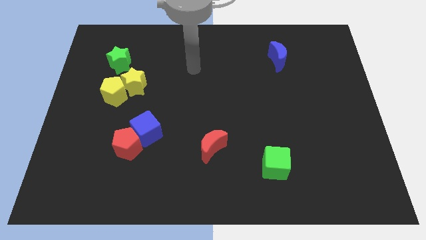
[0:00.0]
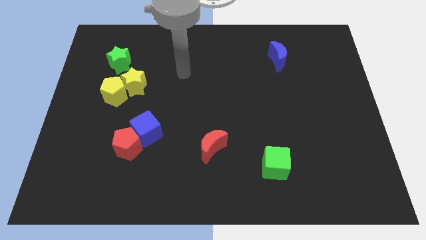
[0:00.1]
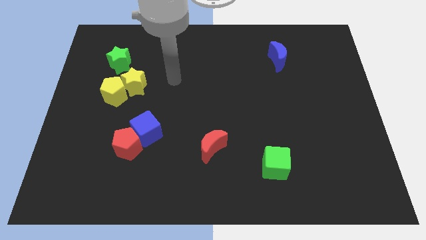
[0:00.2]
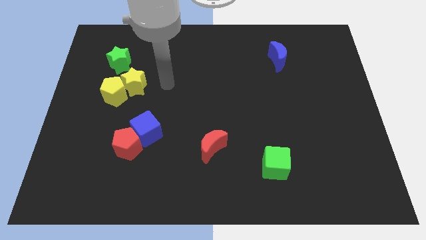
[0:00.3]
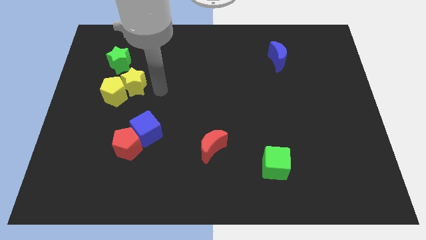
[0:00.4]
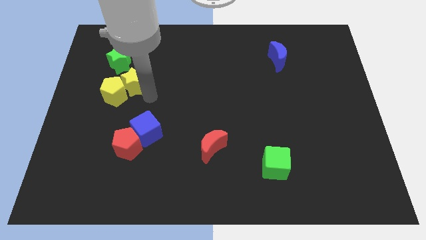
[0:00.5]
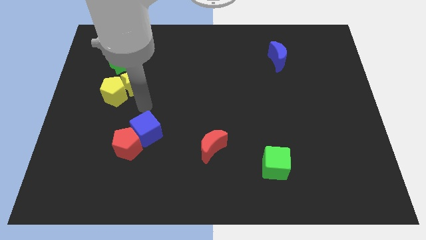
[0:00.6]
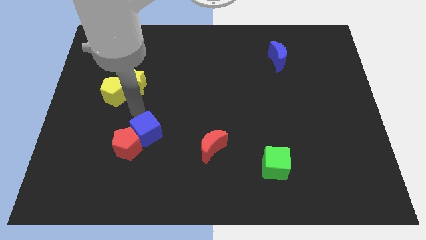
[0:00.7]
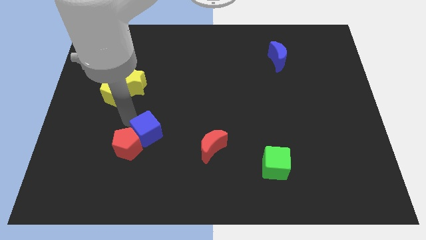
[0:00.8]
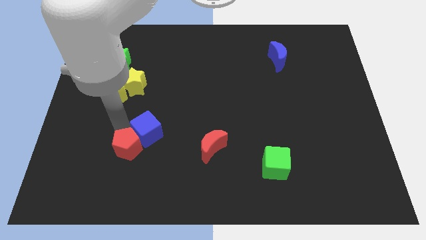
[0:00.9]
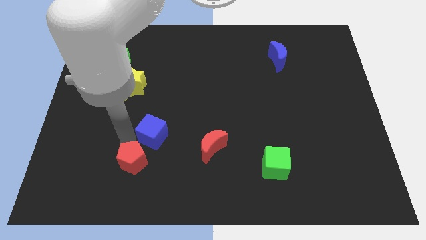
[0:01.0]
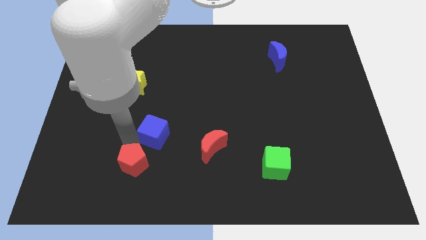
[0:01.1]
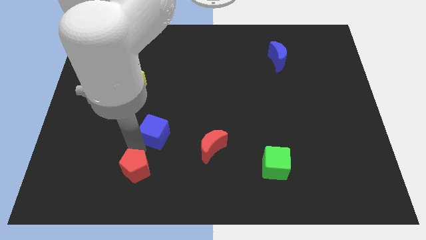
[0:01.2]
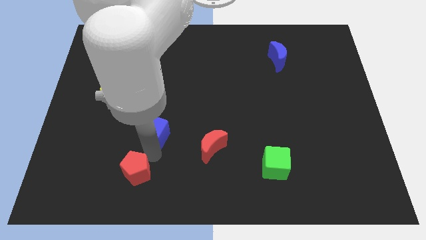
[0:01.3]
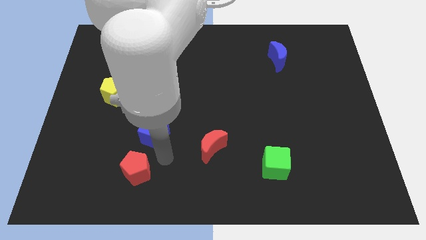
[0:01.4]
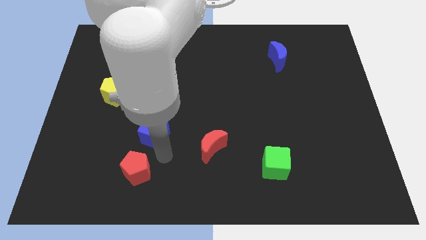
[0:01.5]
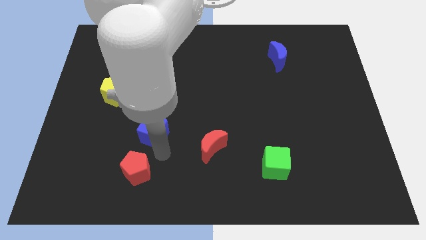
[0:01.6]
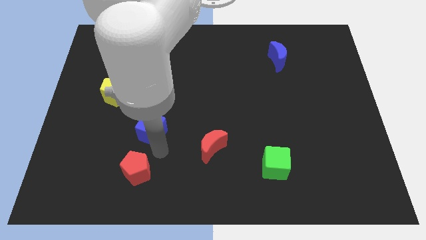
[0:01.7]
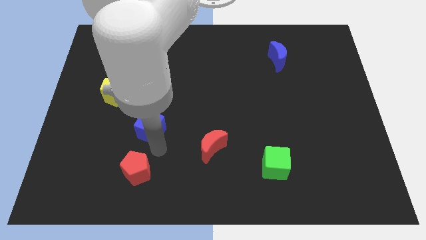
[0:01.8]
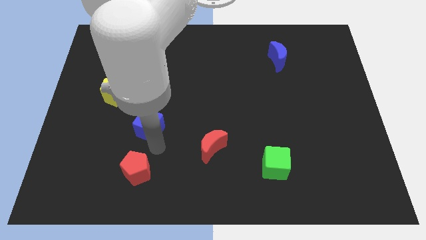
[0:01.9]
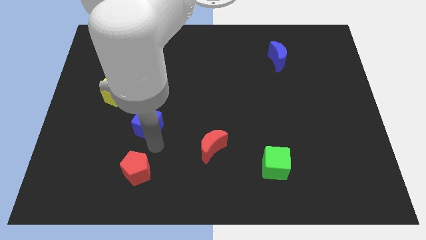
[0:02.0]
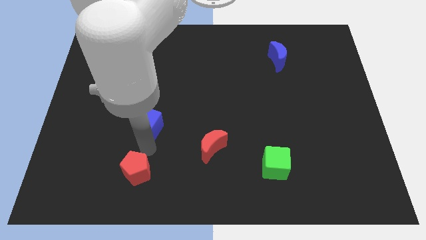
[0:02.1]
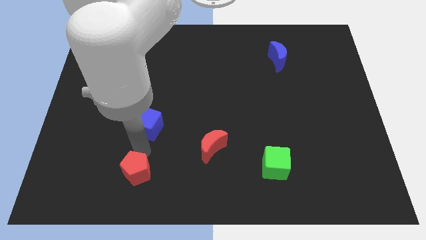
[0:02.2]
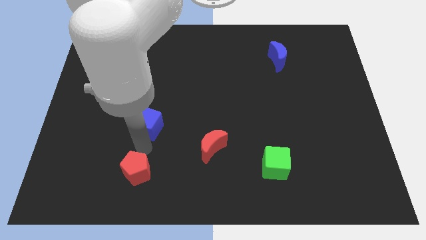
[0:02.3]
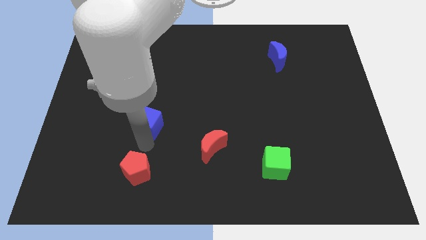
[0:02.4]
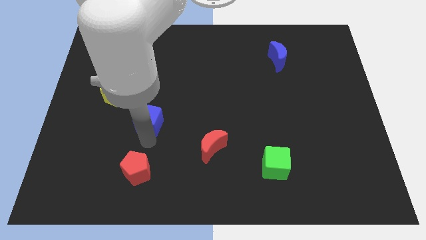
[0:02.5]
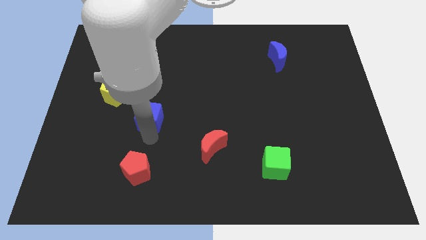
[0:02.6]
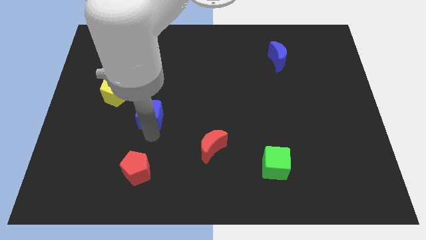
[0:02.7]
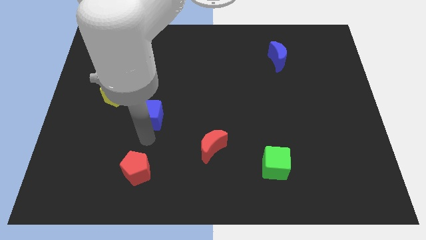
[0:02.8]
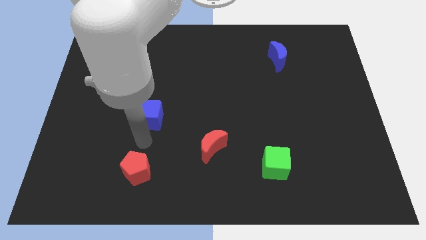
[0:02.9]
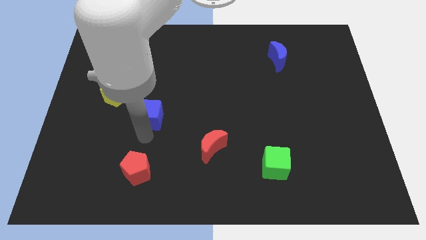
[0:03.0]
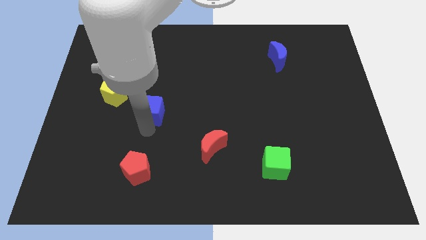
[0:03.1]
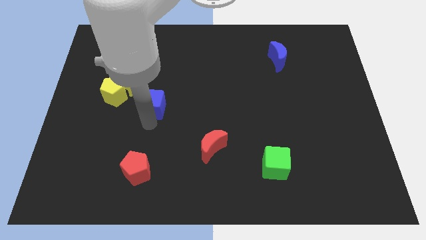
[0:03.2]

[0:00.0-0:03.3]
move the blue cube a little upwards

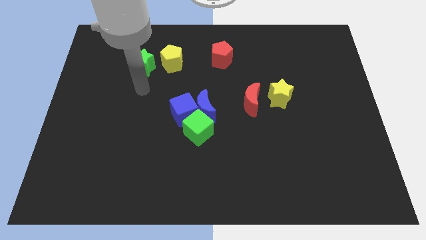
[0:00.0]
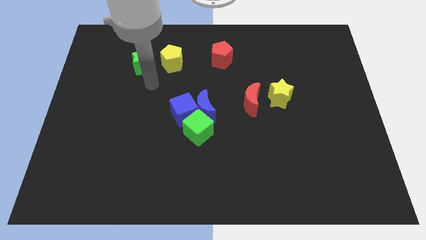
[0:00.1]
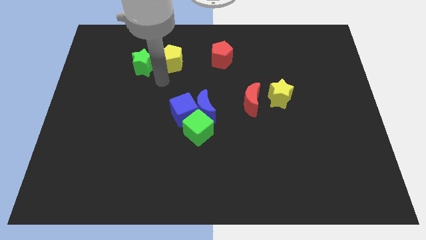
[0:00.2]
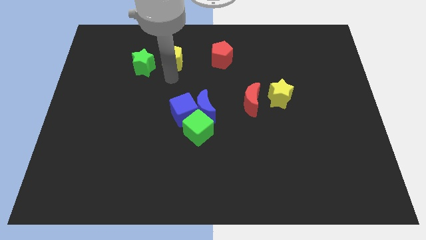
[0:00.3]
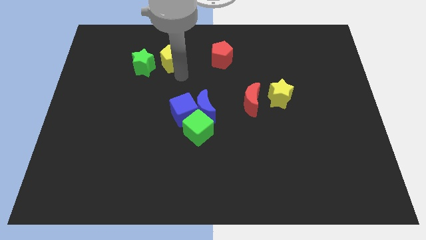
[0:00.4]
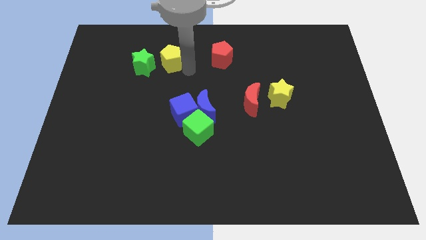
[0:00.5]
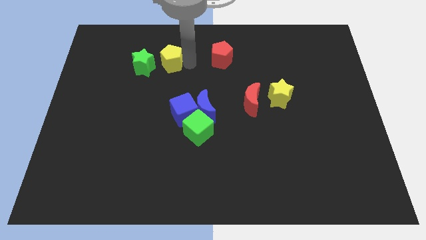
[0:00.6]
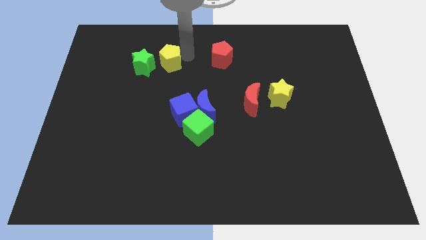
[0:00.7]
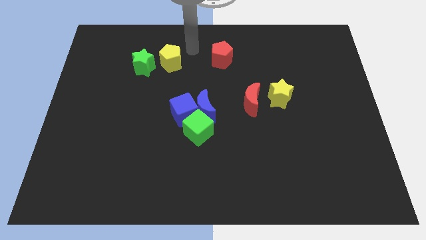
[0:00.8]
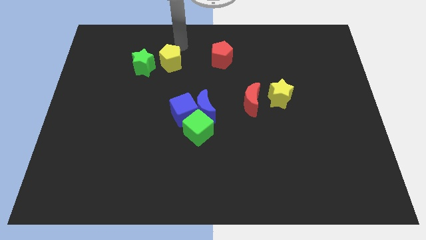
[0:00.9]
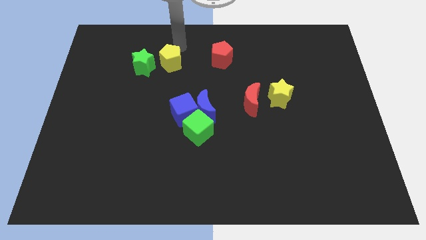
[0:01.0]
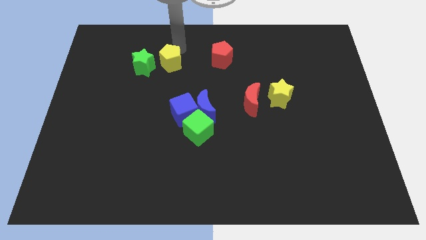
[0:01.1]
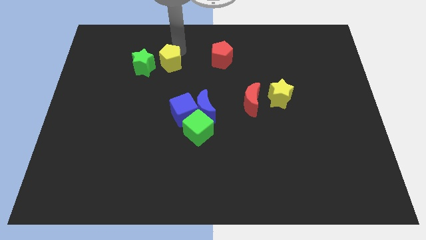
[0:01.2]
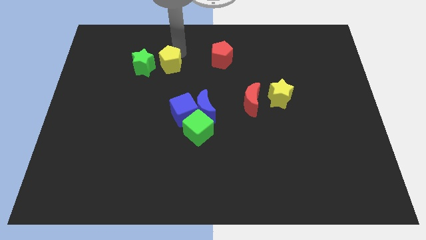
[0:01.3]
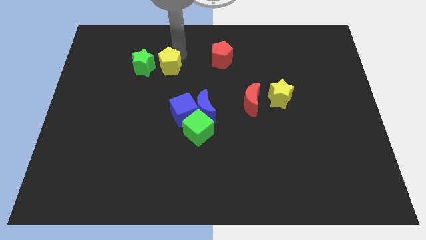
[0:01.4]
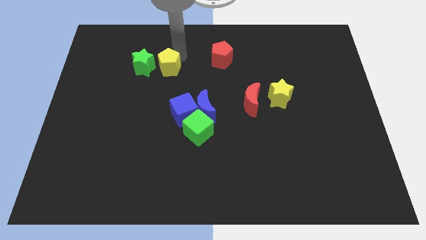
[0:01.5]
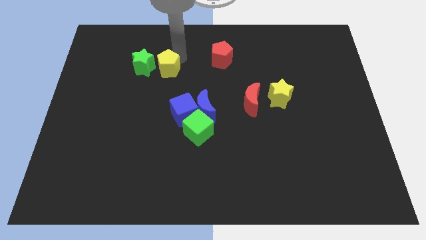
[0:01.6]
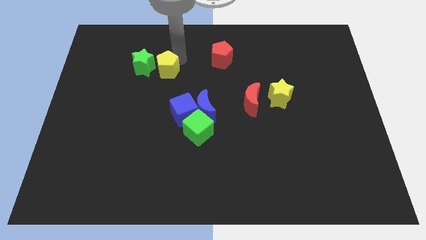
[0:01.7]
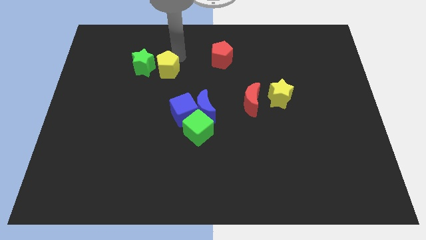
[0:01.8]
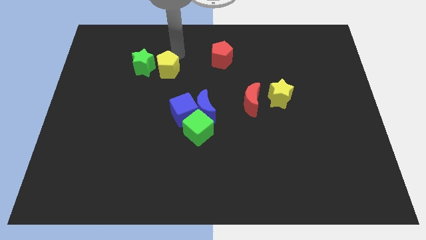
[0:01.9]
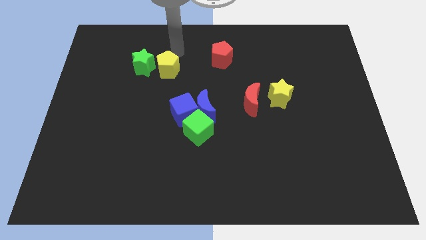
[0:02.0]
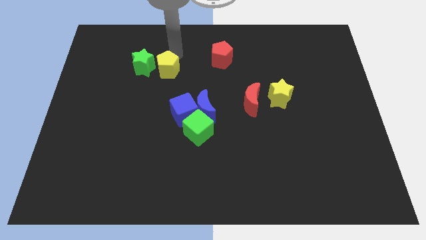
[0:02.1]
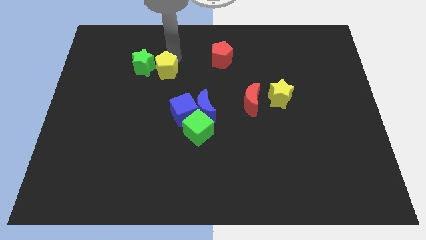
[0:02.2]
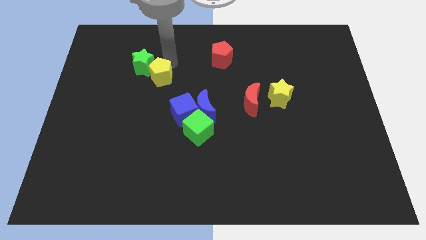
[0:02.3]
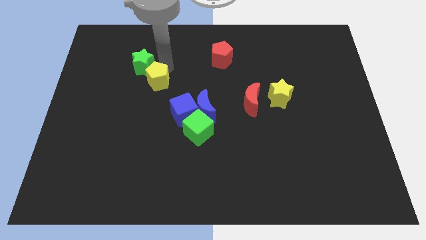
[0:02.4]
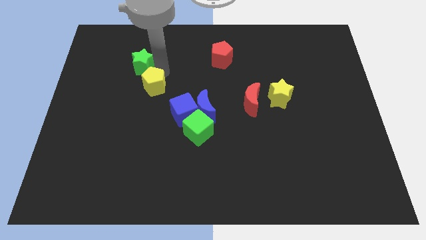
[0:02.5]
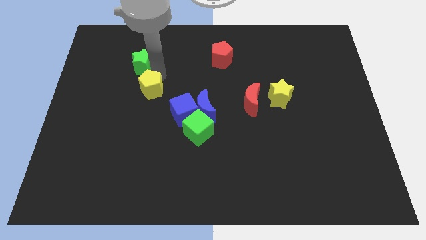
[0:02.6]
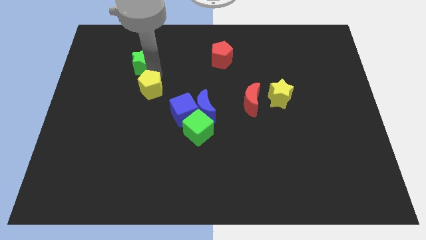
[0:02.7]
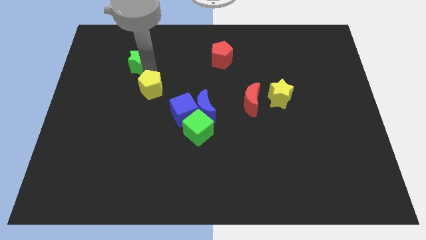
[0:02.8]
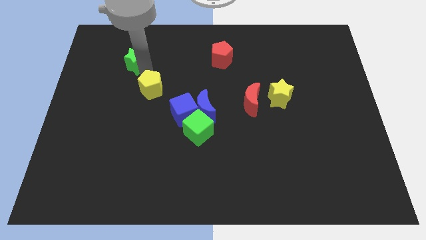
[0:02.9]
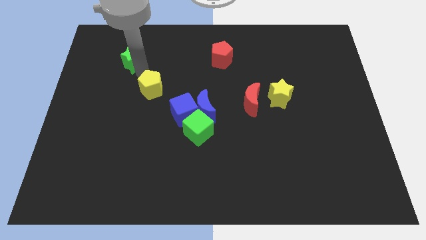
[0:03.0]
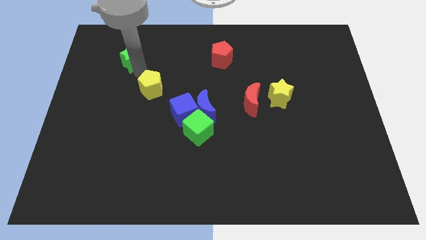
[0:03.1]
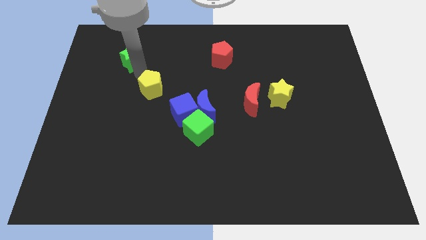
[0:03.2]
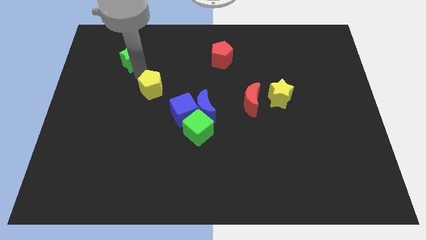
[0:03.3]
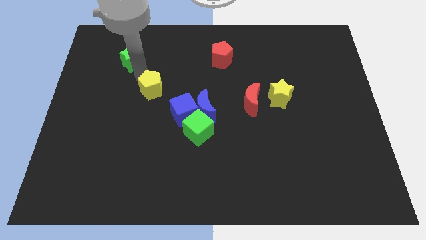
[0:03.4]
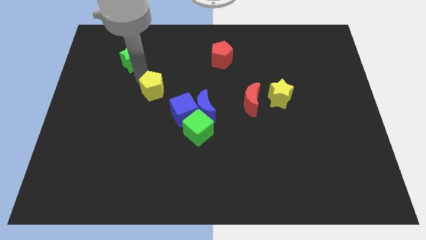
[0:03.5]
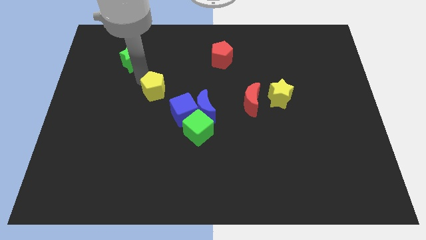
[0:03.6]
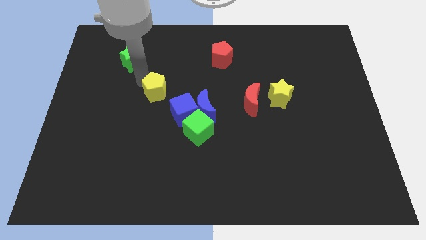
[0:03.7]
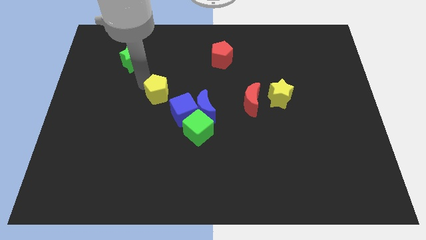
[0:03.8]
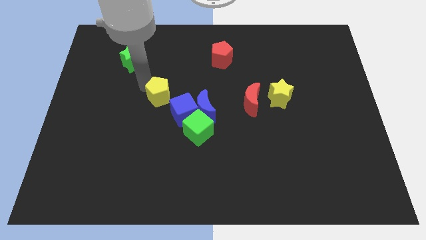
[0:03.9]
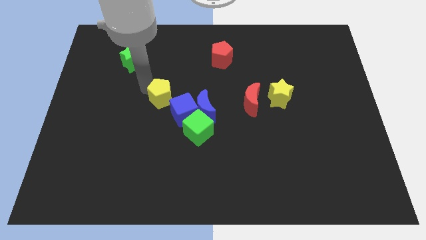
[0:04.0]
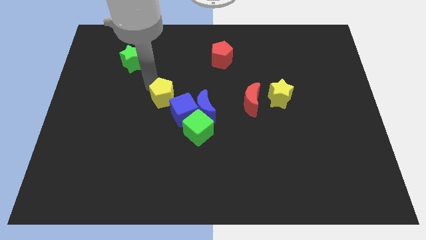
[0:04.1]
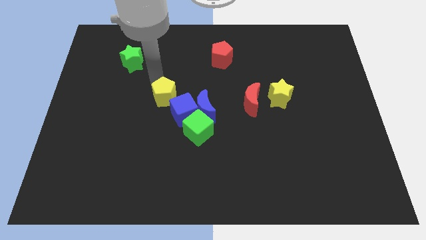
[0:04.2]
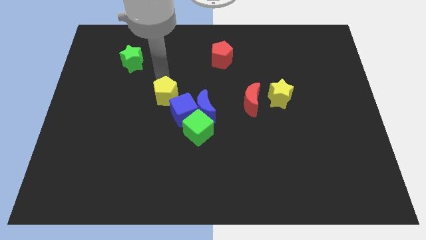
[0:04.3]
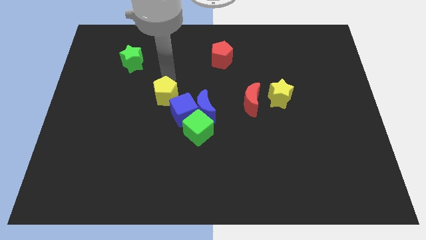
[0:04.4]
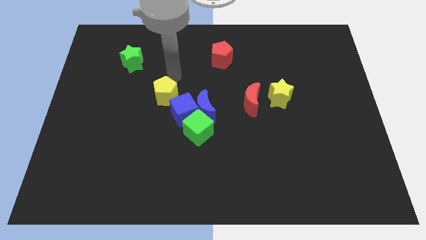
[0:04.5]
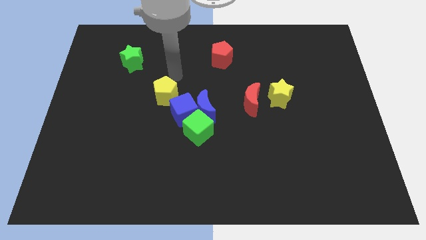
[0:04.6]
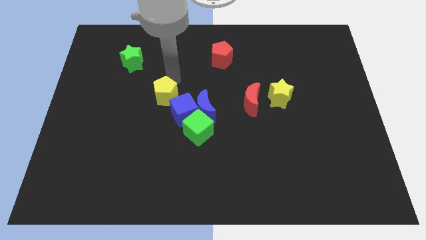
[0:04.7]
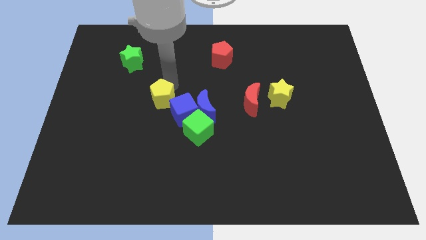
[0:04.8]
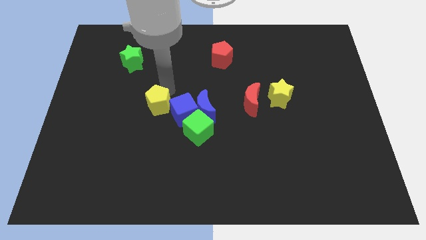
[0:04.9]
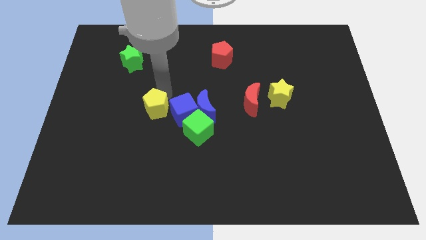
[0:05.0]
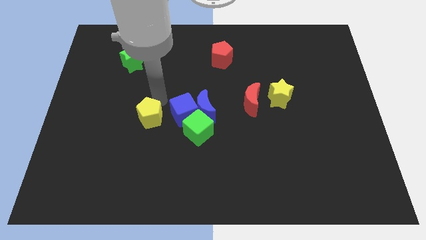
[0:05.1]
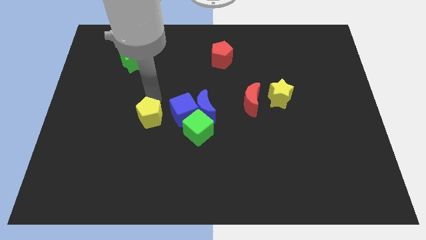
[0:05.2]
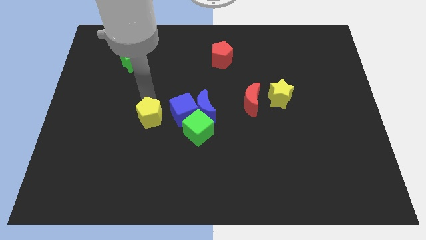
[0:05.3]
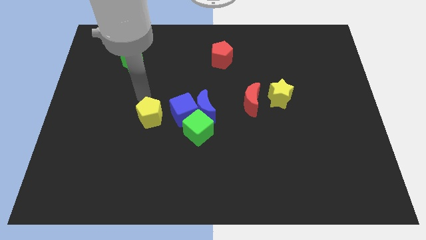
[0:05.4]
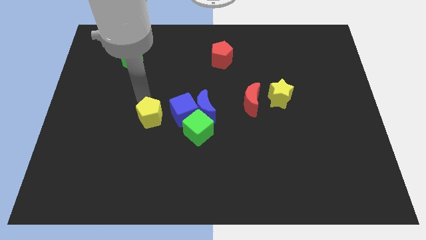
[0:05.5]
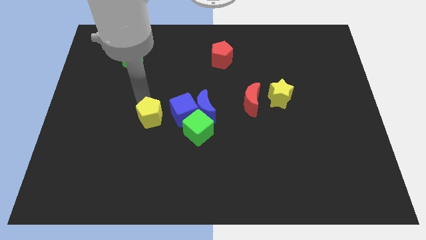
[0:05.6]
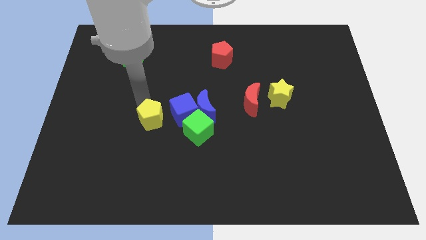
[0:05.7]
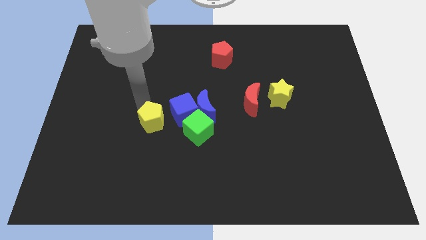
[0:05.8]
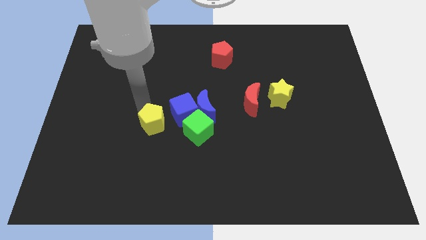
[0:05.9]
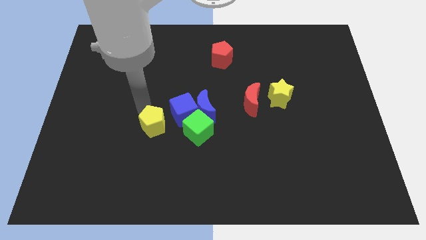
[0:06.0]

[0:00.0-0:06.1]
slide the yellow pentagon down
